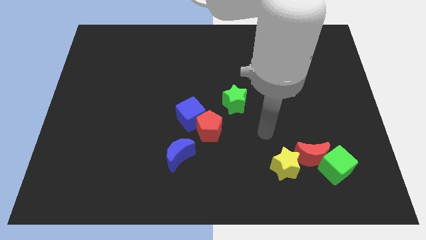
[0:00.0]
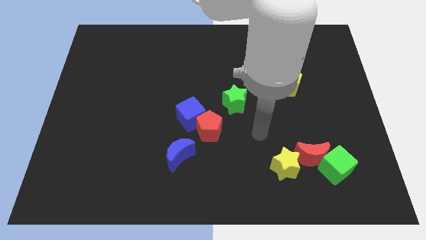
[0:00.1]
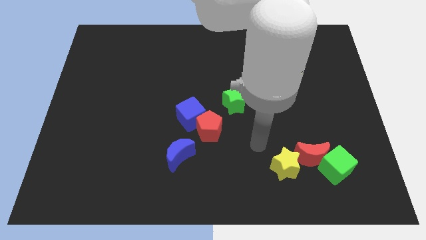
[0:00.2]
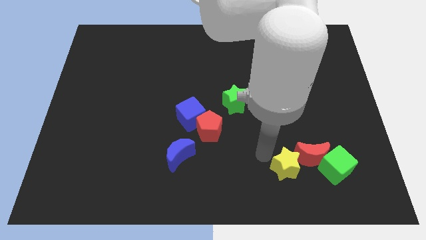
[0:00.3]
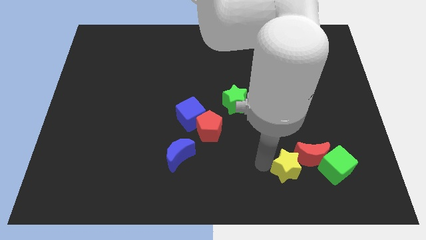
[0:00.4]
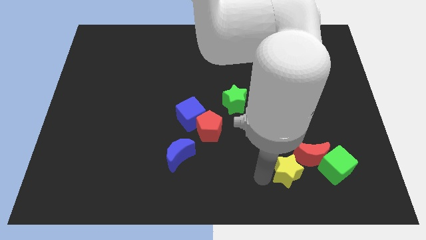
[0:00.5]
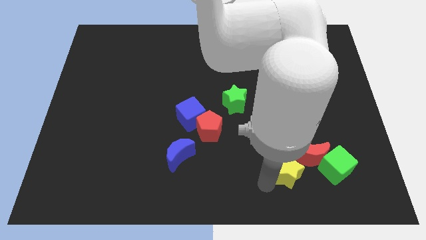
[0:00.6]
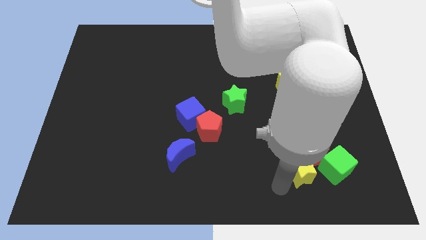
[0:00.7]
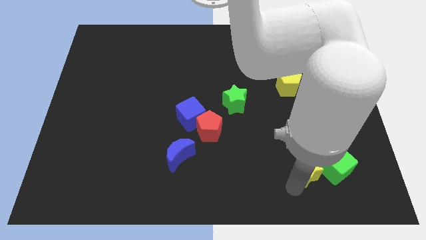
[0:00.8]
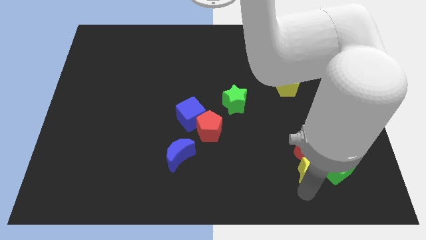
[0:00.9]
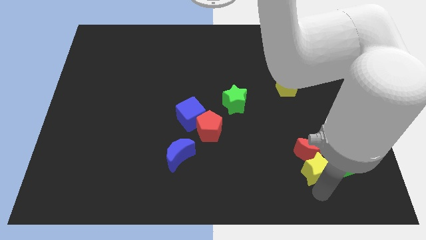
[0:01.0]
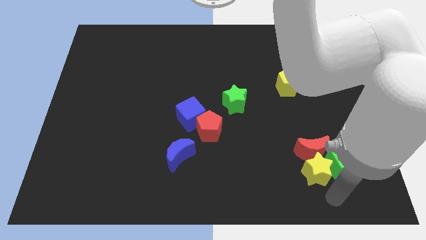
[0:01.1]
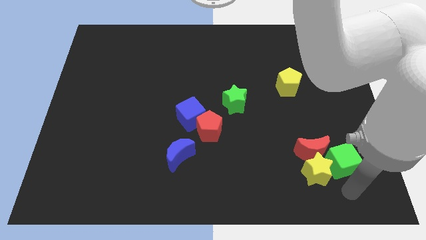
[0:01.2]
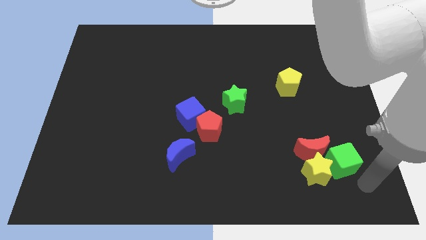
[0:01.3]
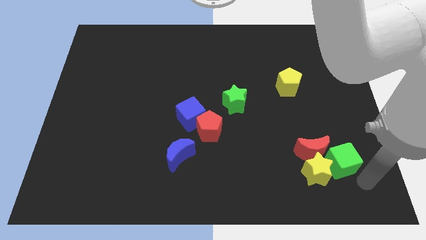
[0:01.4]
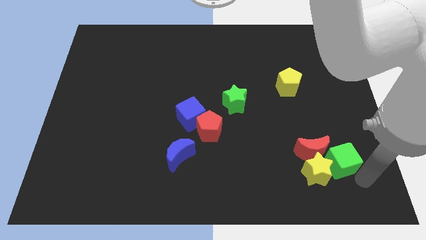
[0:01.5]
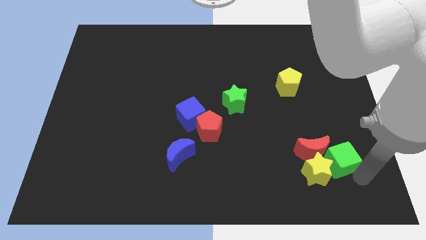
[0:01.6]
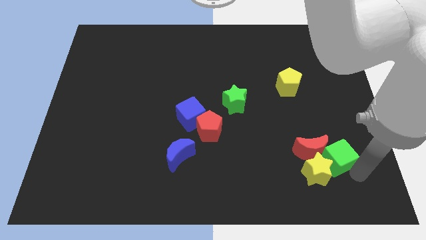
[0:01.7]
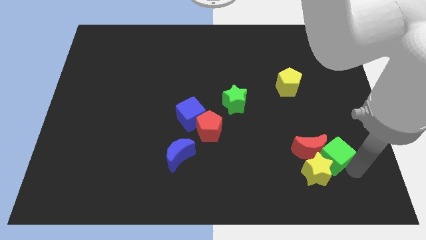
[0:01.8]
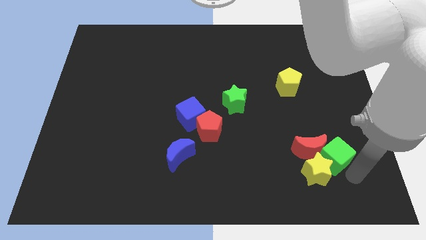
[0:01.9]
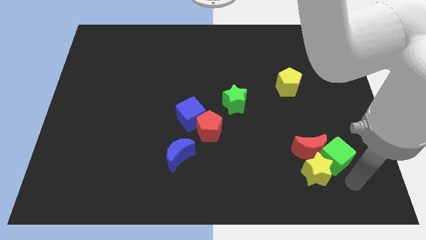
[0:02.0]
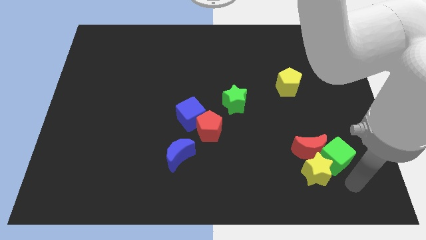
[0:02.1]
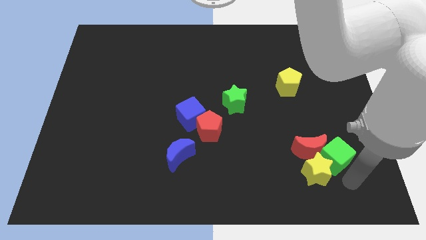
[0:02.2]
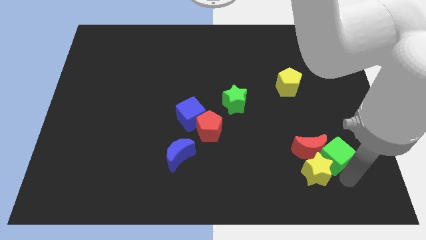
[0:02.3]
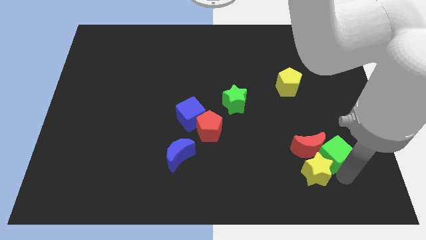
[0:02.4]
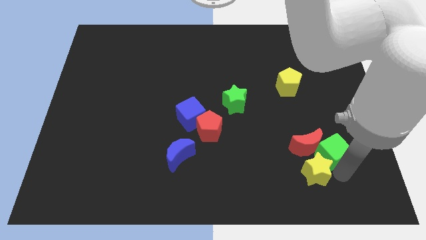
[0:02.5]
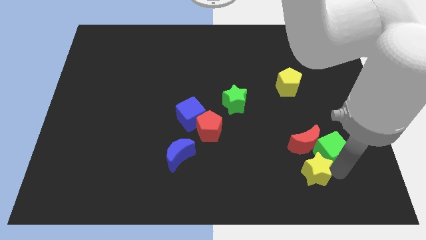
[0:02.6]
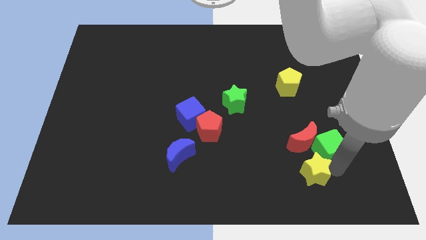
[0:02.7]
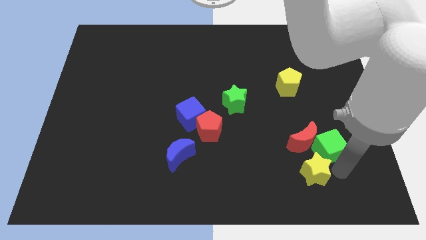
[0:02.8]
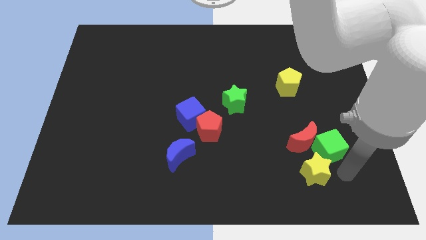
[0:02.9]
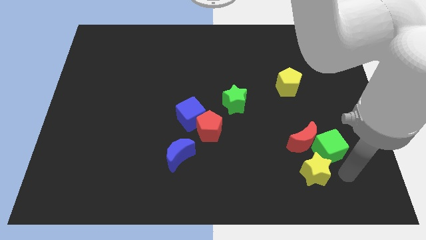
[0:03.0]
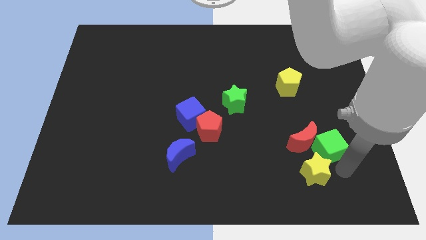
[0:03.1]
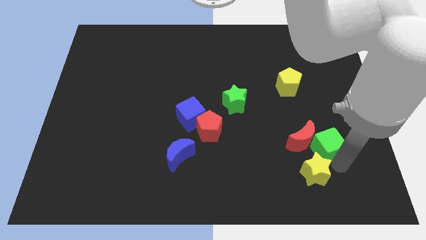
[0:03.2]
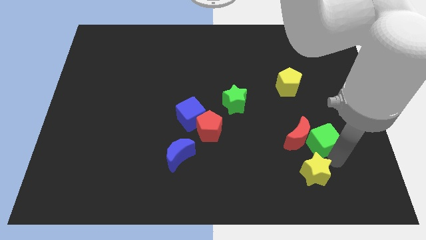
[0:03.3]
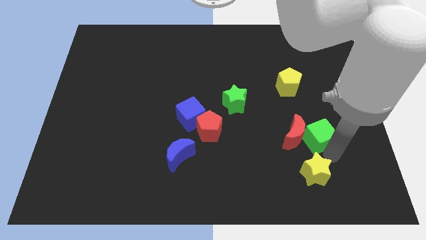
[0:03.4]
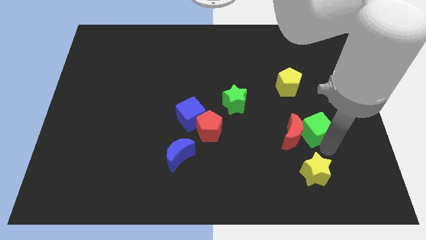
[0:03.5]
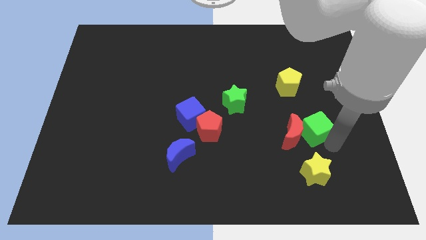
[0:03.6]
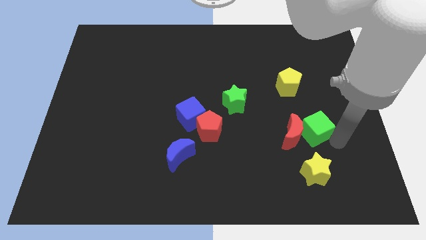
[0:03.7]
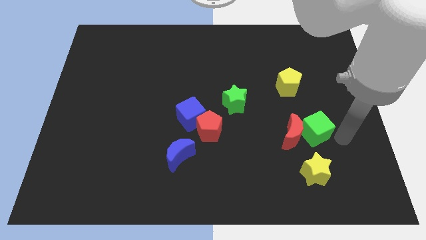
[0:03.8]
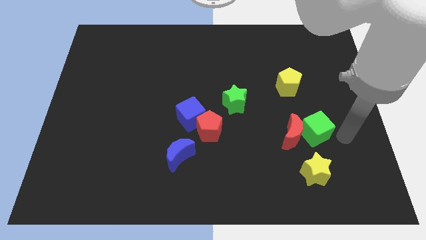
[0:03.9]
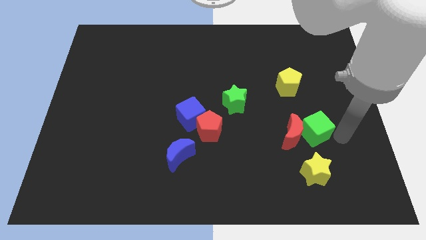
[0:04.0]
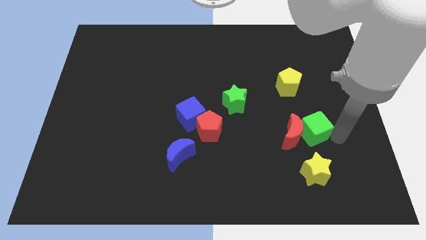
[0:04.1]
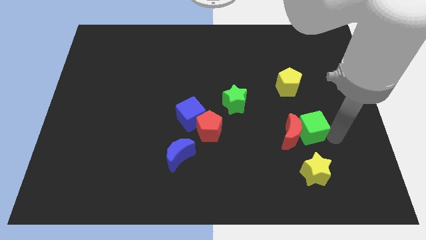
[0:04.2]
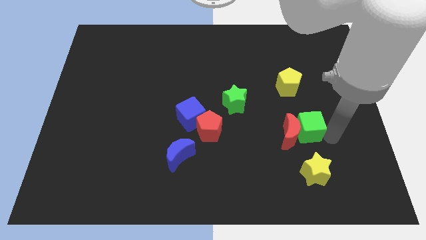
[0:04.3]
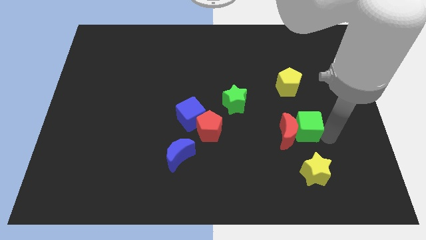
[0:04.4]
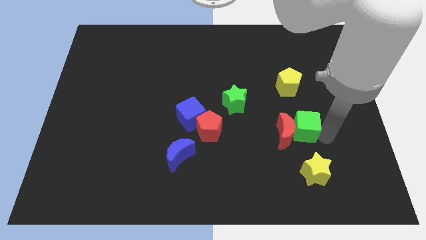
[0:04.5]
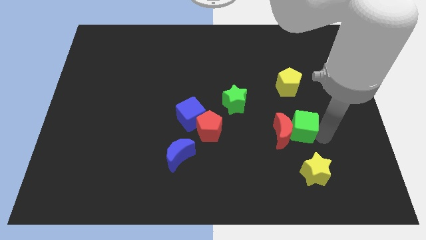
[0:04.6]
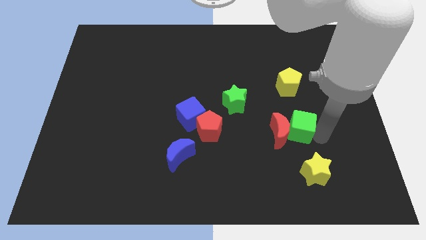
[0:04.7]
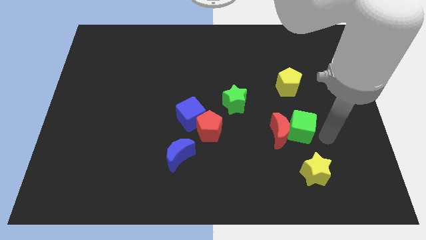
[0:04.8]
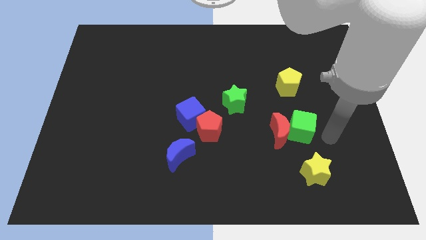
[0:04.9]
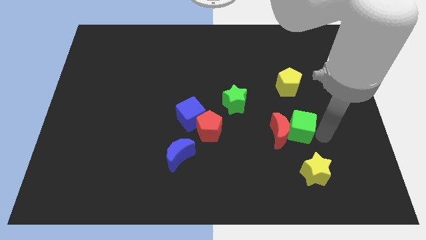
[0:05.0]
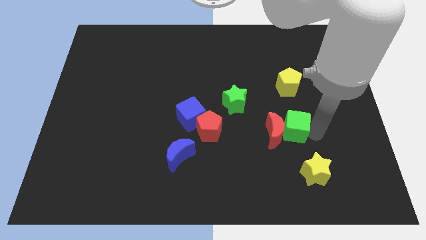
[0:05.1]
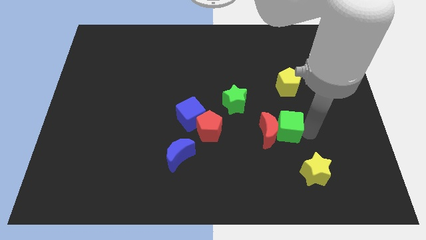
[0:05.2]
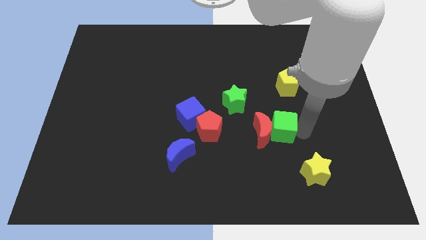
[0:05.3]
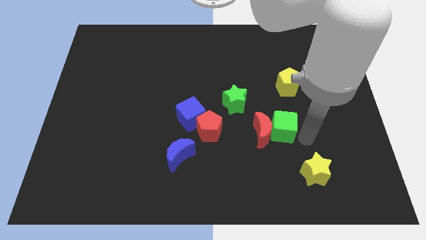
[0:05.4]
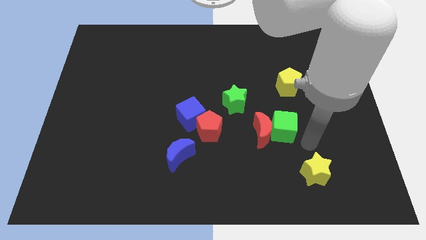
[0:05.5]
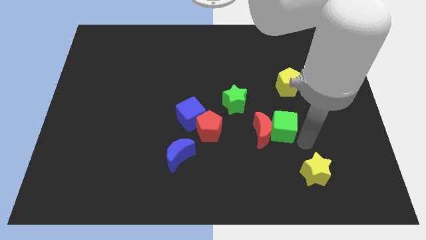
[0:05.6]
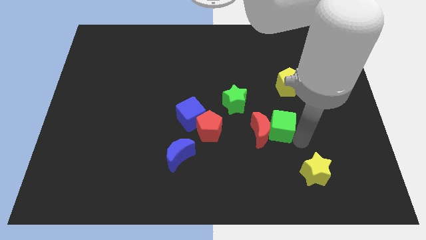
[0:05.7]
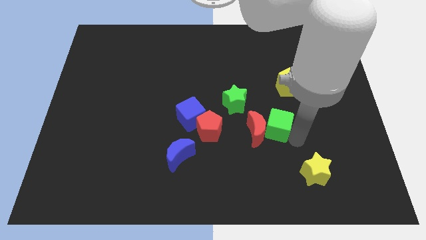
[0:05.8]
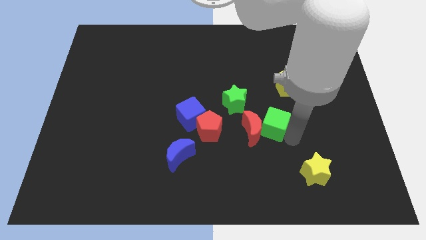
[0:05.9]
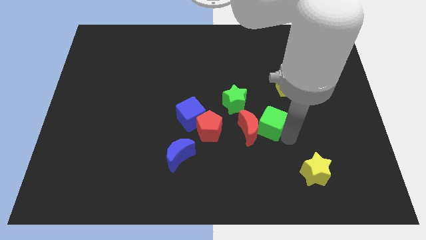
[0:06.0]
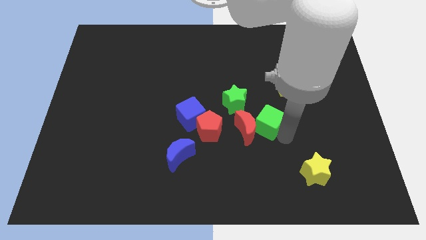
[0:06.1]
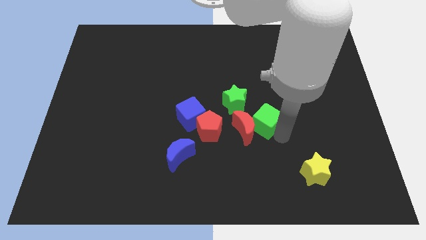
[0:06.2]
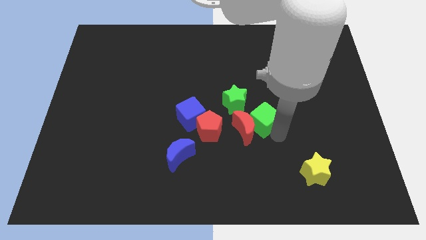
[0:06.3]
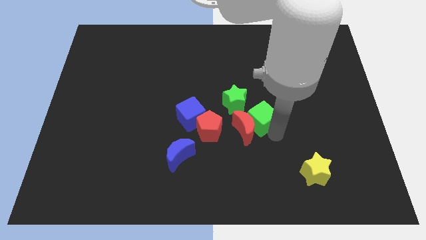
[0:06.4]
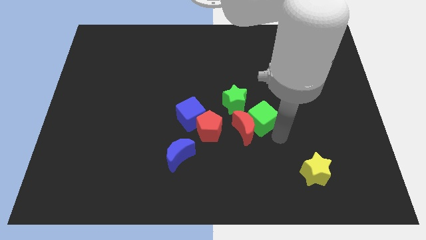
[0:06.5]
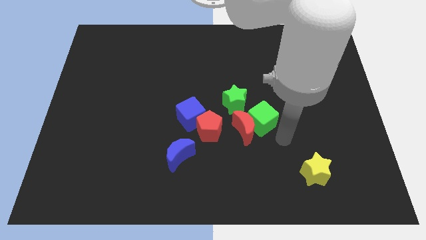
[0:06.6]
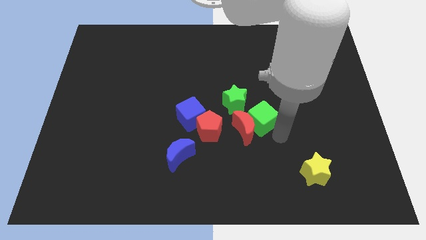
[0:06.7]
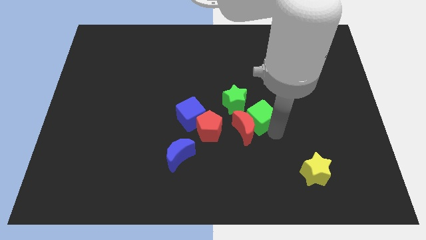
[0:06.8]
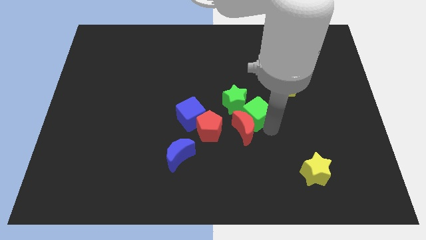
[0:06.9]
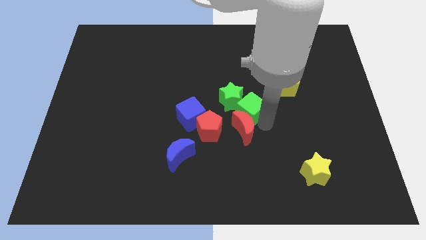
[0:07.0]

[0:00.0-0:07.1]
put the green cube next to the green star

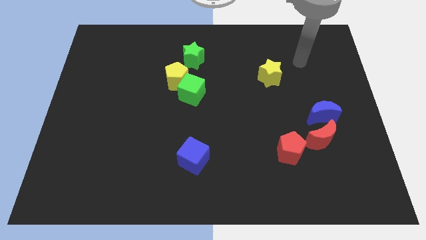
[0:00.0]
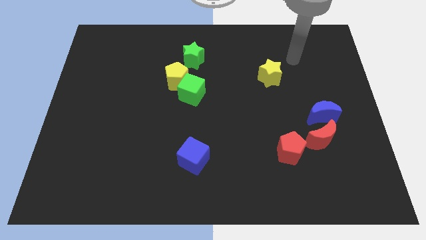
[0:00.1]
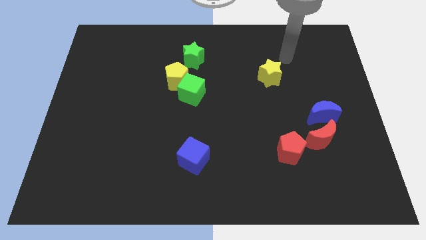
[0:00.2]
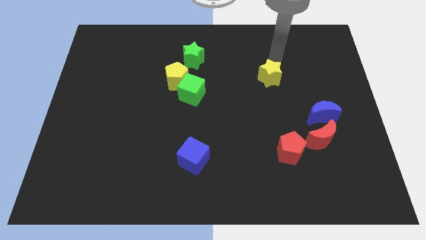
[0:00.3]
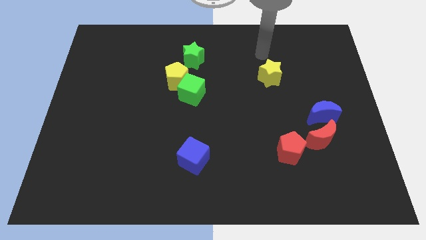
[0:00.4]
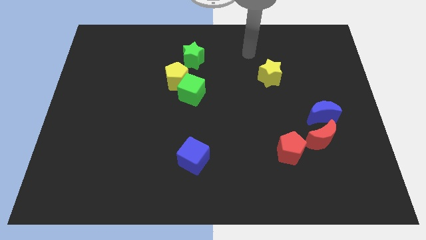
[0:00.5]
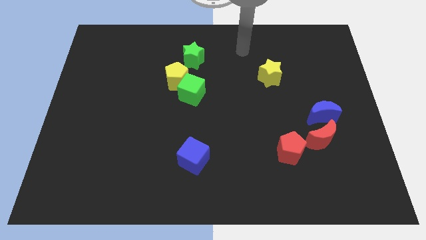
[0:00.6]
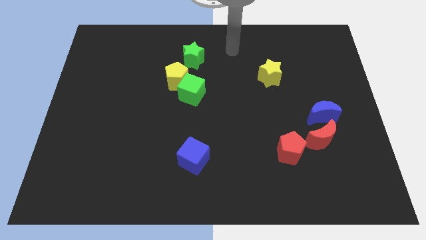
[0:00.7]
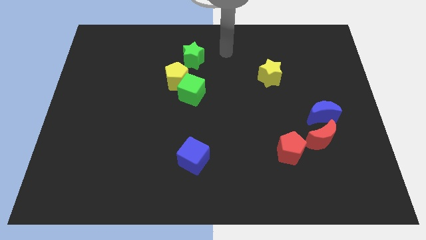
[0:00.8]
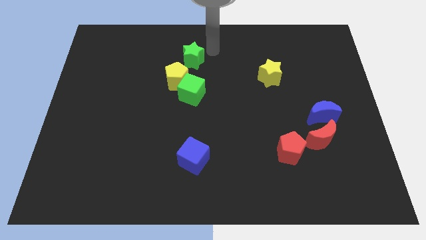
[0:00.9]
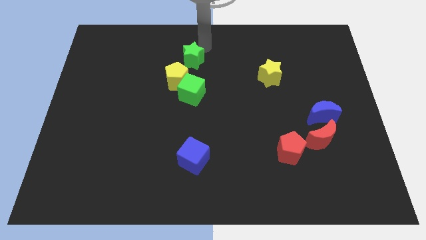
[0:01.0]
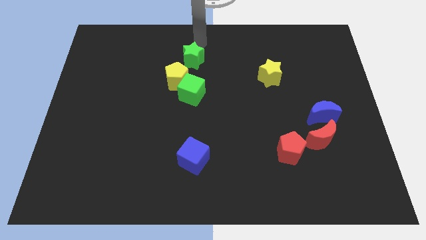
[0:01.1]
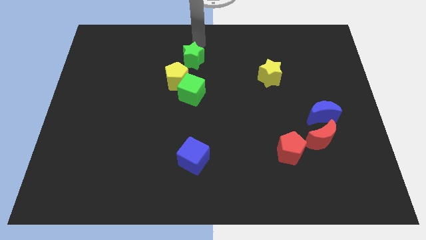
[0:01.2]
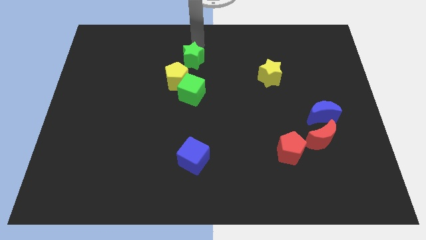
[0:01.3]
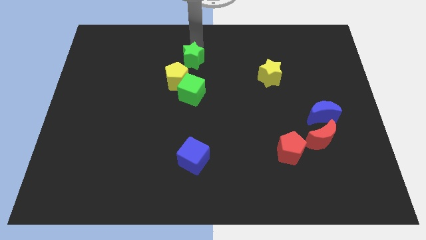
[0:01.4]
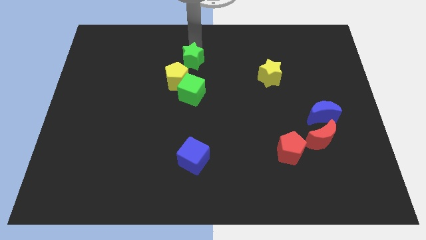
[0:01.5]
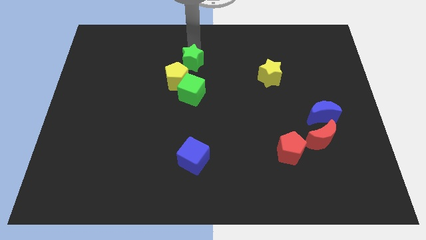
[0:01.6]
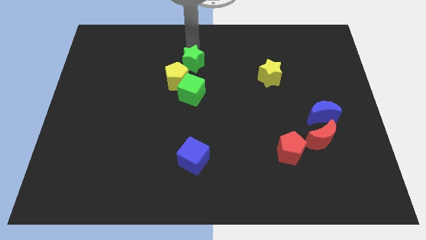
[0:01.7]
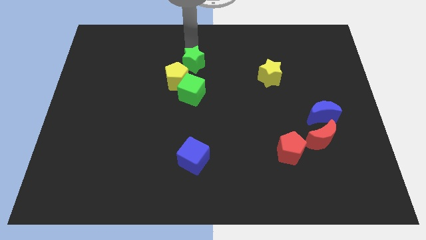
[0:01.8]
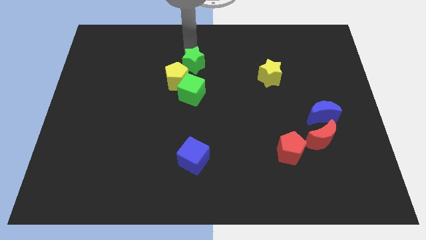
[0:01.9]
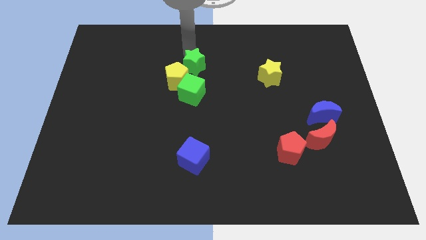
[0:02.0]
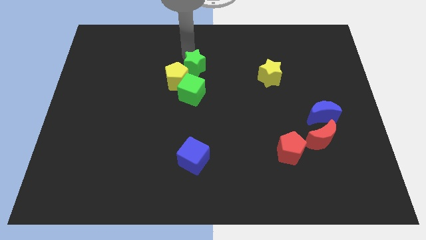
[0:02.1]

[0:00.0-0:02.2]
move the green star to the yellow pentagon
